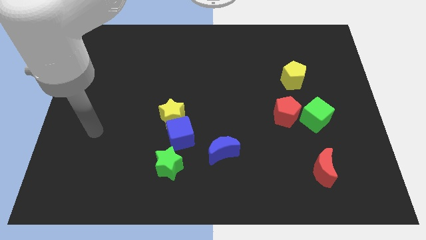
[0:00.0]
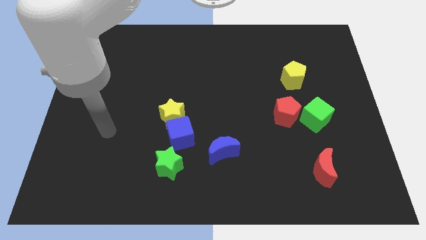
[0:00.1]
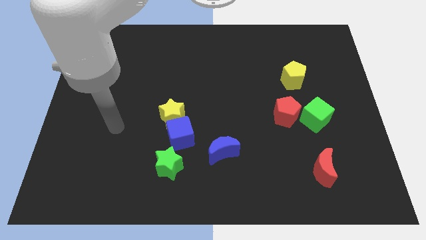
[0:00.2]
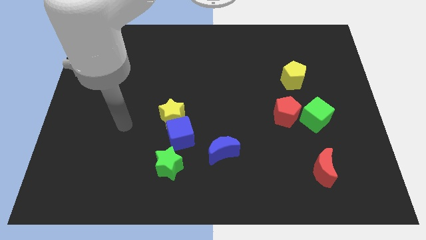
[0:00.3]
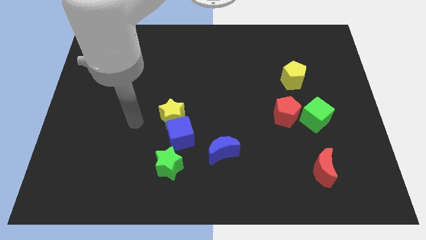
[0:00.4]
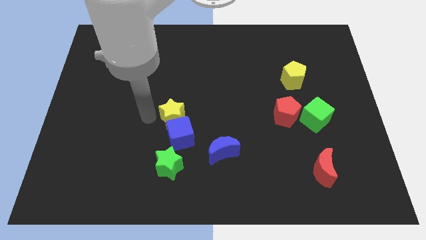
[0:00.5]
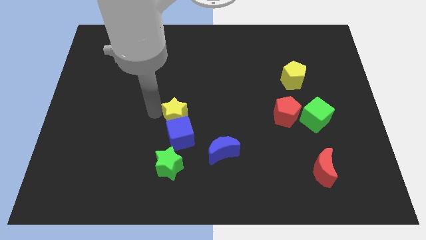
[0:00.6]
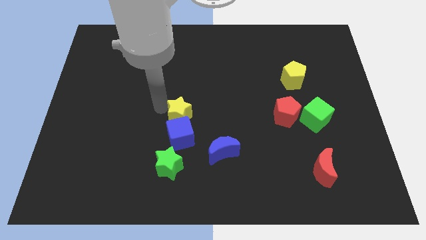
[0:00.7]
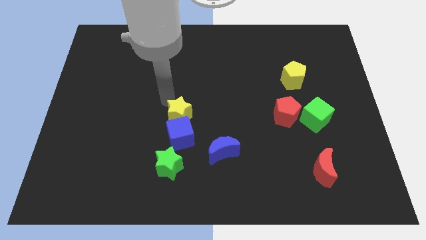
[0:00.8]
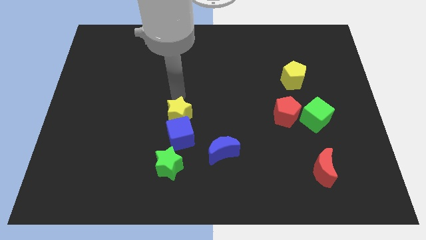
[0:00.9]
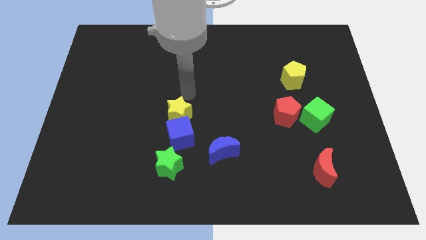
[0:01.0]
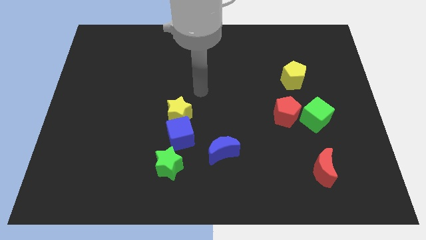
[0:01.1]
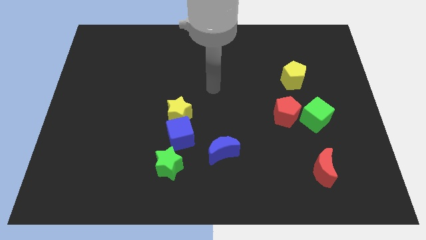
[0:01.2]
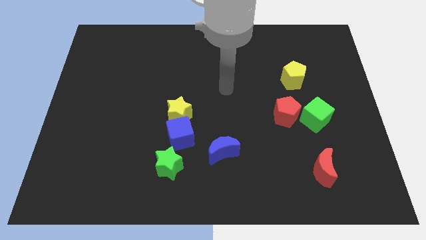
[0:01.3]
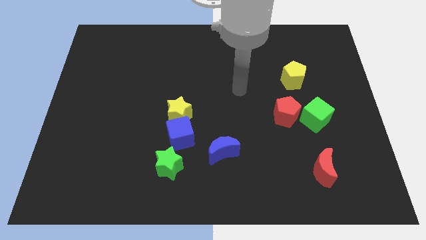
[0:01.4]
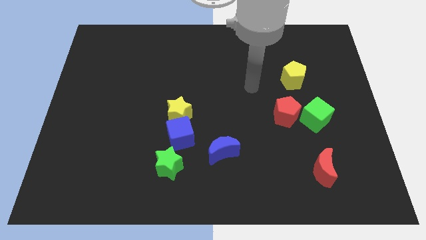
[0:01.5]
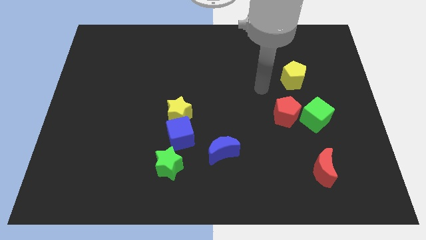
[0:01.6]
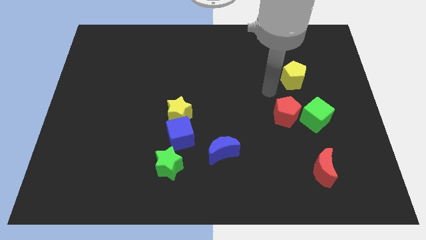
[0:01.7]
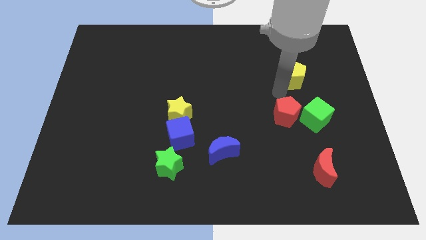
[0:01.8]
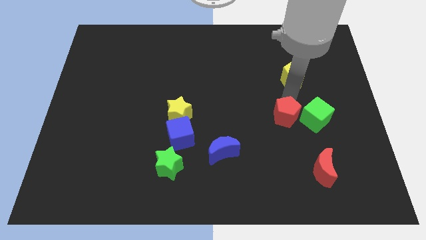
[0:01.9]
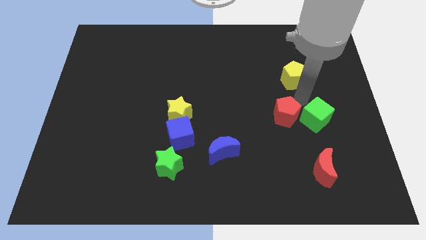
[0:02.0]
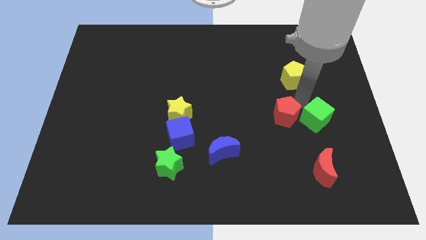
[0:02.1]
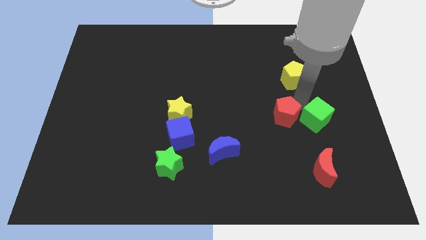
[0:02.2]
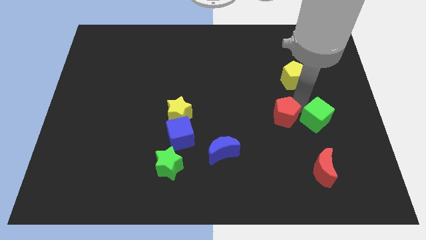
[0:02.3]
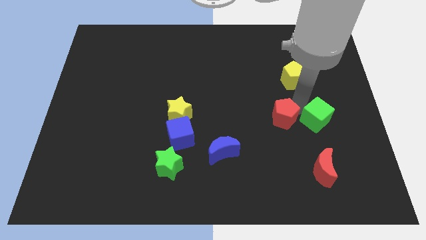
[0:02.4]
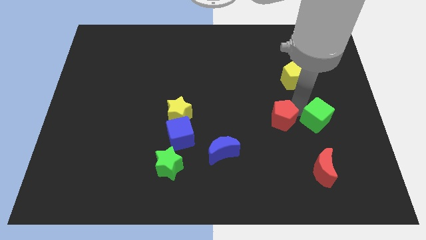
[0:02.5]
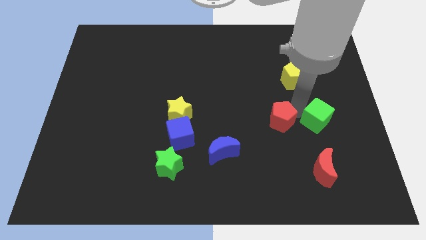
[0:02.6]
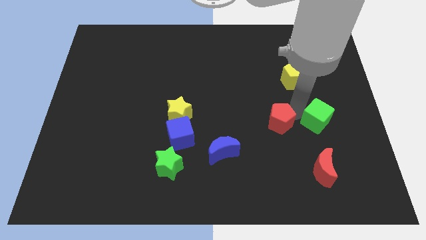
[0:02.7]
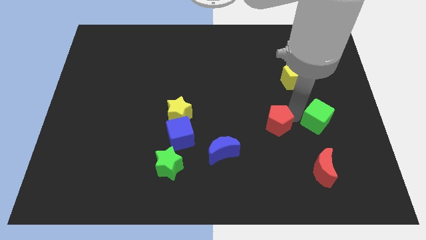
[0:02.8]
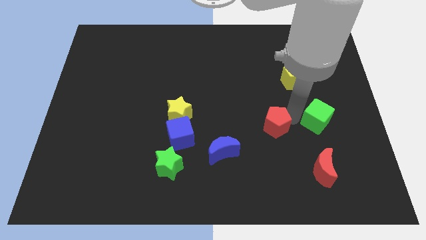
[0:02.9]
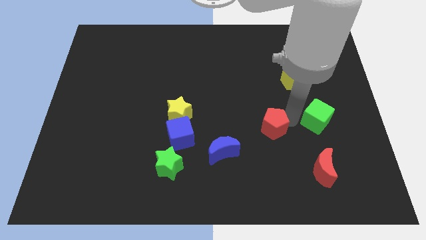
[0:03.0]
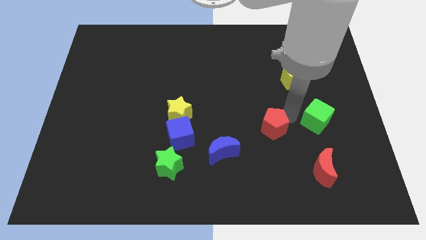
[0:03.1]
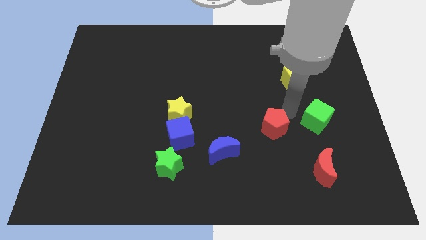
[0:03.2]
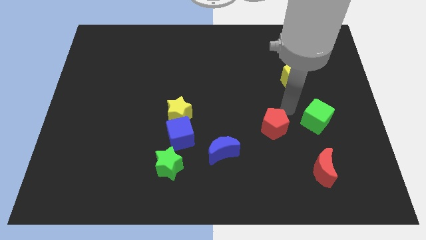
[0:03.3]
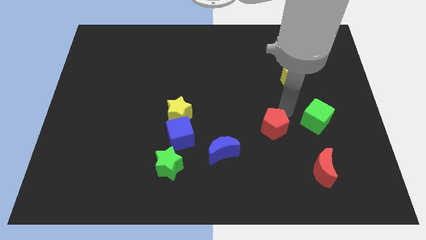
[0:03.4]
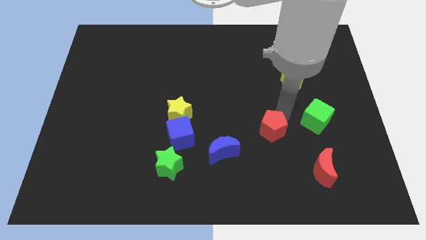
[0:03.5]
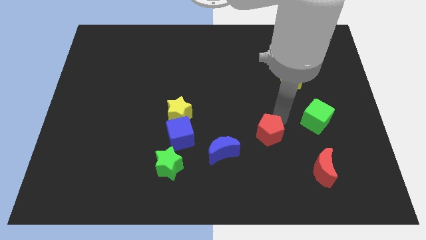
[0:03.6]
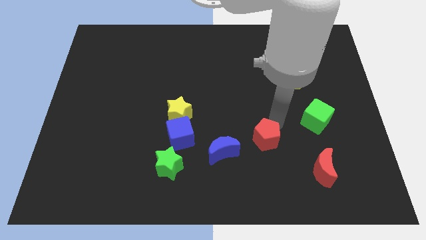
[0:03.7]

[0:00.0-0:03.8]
push the red pentagon down and then to the left a little bit

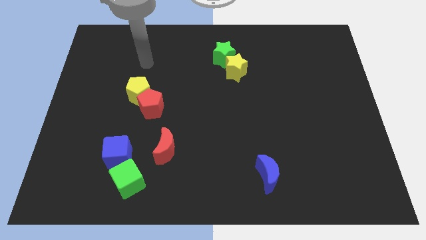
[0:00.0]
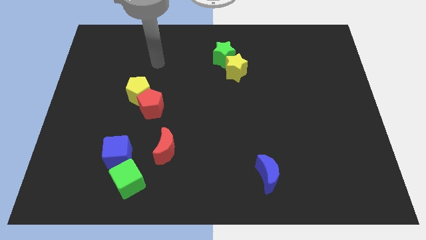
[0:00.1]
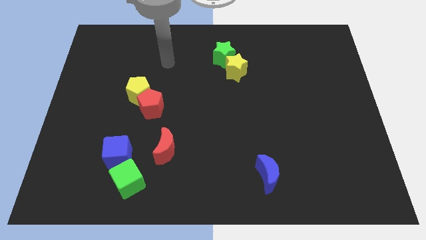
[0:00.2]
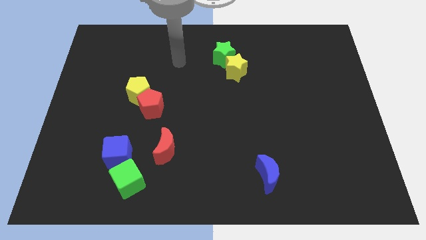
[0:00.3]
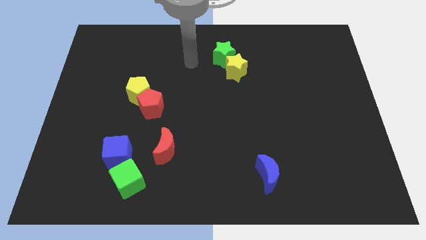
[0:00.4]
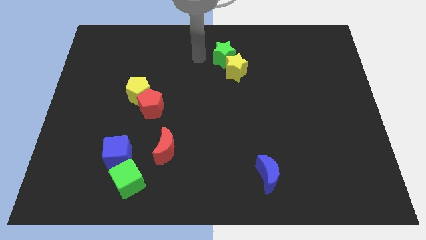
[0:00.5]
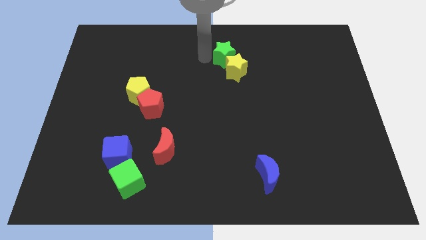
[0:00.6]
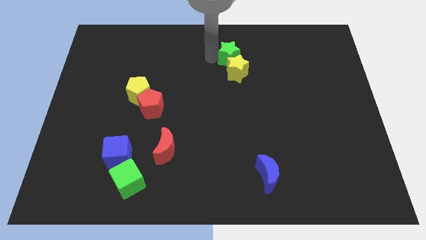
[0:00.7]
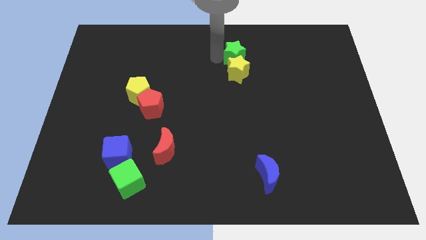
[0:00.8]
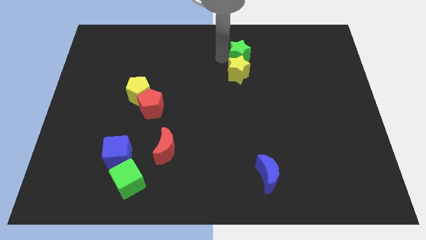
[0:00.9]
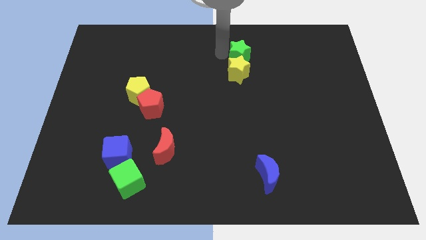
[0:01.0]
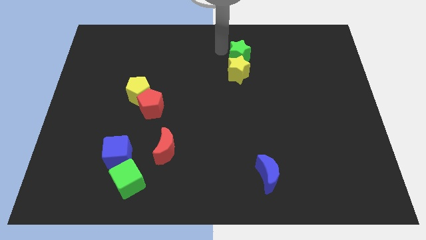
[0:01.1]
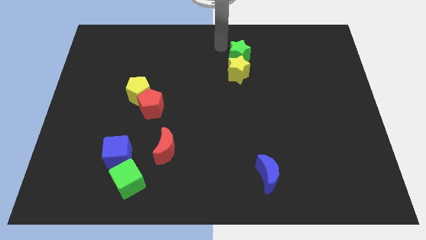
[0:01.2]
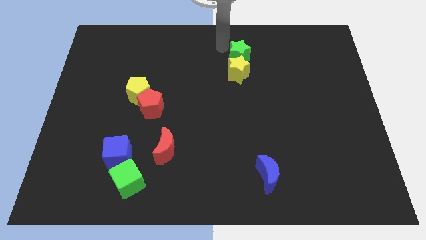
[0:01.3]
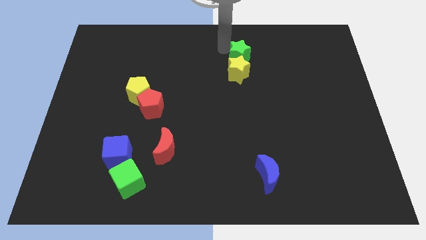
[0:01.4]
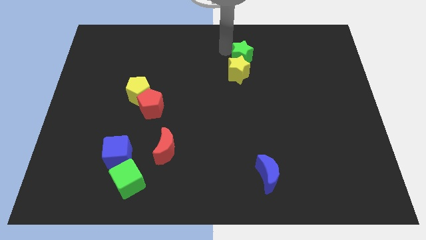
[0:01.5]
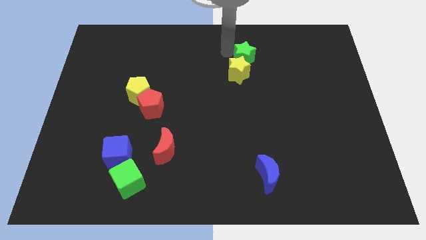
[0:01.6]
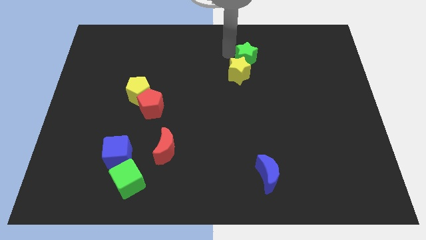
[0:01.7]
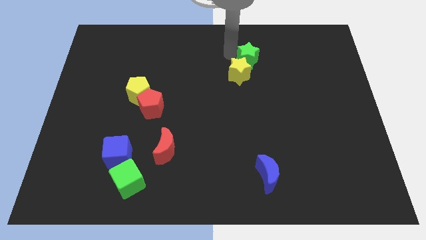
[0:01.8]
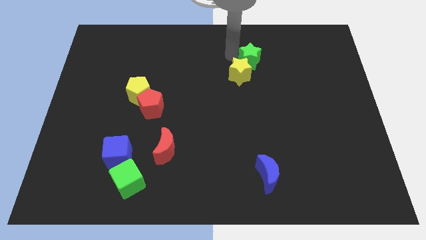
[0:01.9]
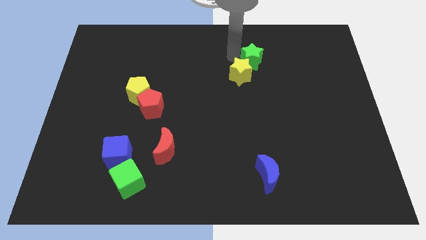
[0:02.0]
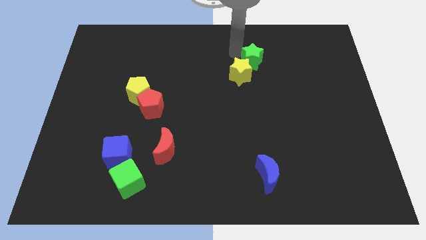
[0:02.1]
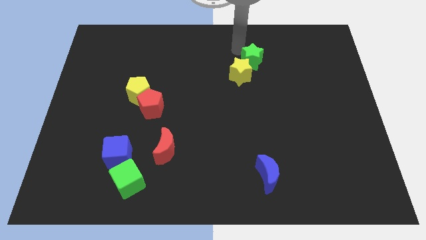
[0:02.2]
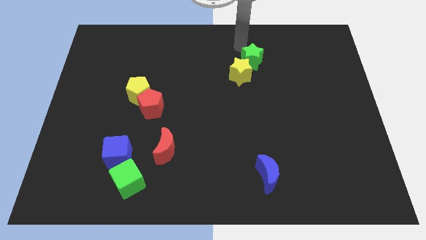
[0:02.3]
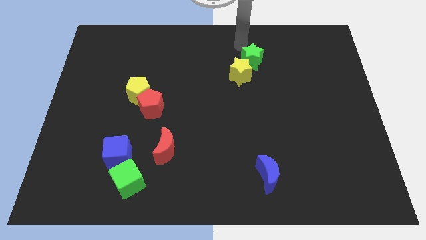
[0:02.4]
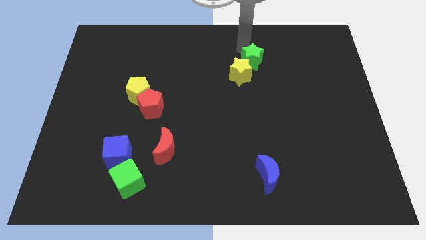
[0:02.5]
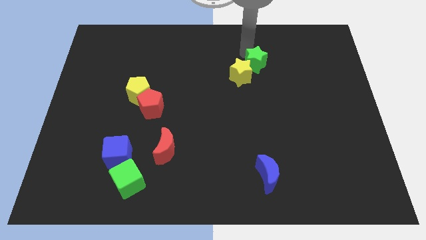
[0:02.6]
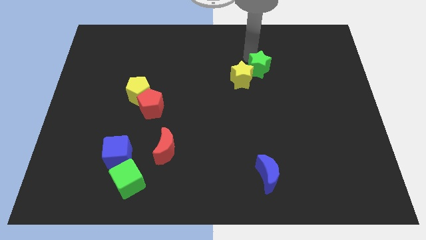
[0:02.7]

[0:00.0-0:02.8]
slightly slide the green star down and to the right diagonally

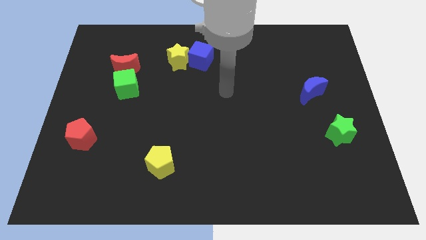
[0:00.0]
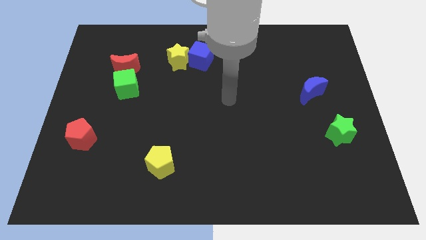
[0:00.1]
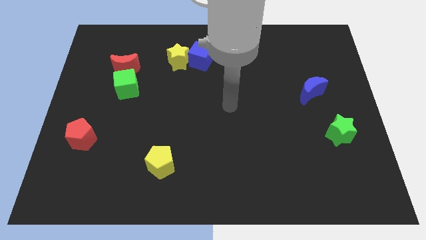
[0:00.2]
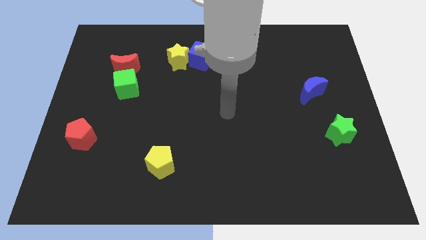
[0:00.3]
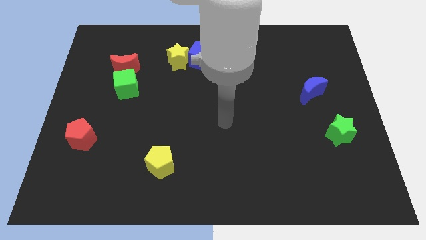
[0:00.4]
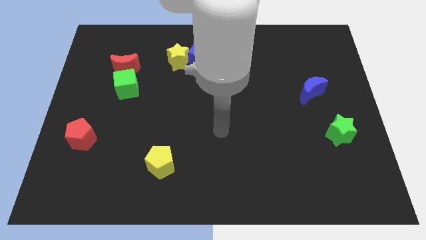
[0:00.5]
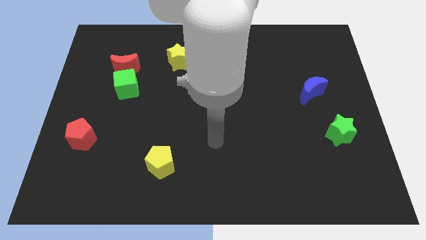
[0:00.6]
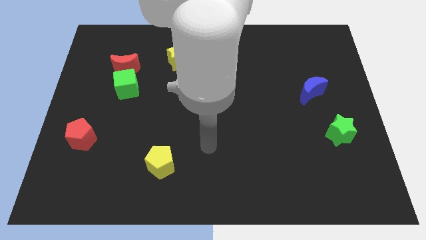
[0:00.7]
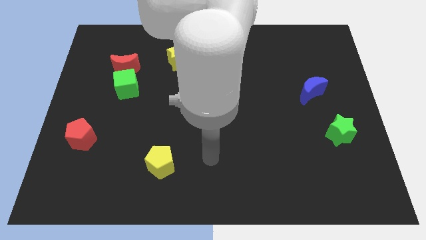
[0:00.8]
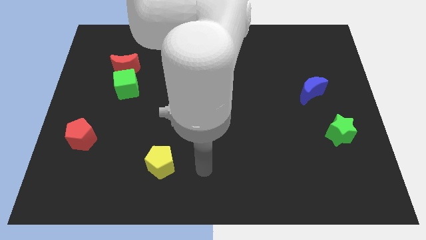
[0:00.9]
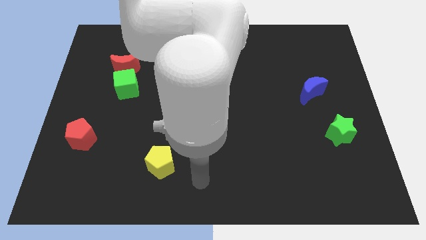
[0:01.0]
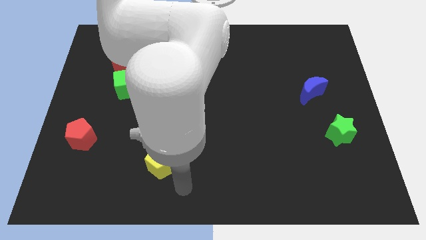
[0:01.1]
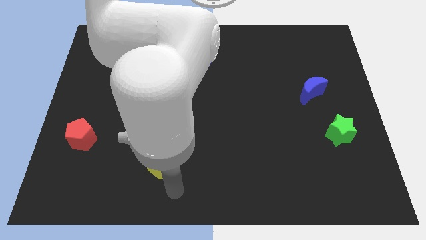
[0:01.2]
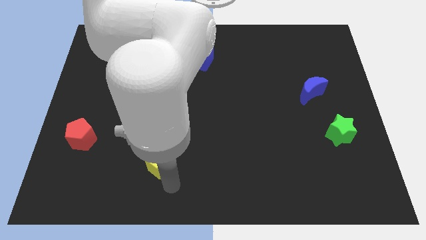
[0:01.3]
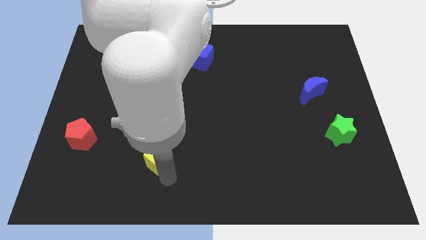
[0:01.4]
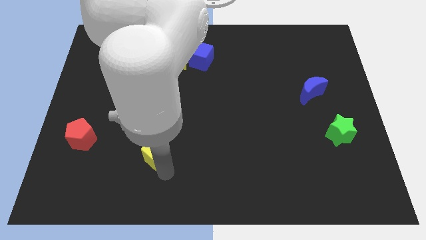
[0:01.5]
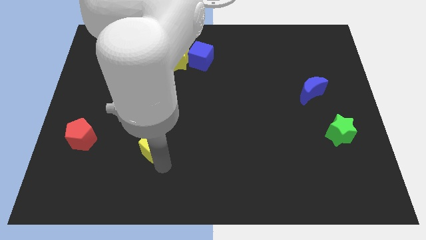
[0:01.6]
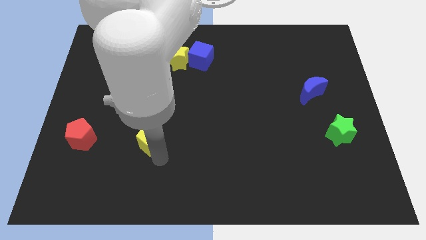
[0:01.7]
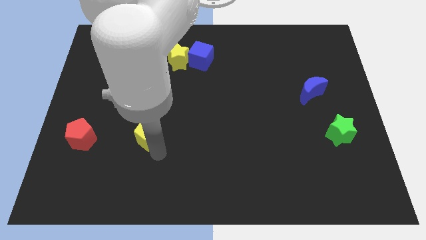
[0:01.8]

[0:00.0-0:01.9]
move the yellow pentagon a little bit up and to the left
